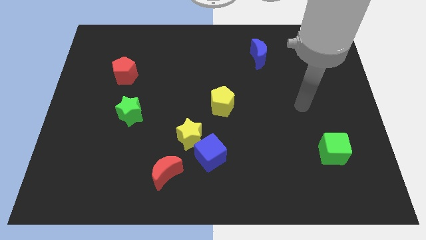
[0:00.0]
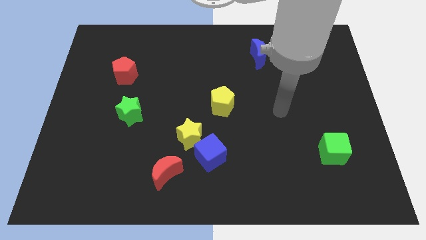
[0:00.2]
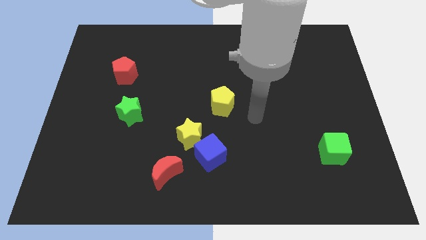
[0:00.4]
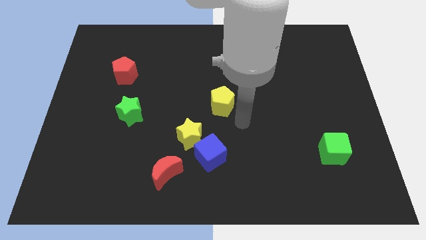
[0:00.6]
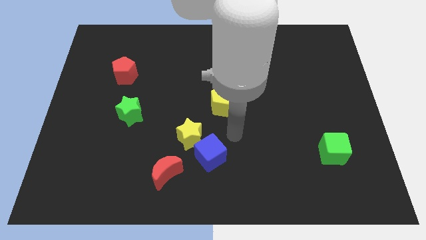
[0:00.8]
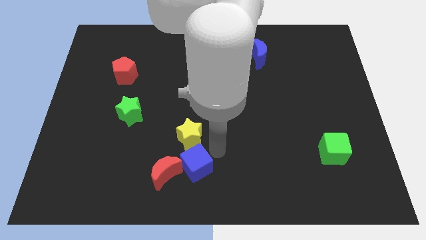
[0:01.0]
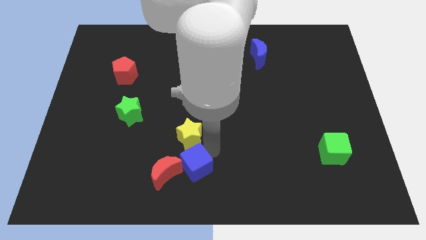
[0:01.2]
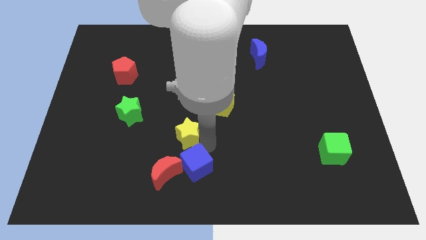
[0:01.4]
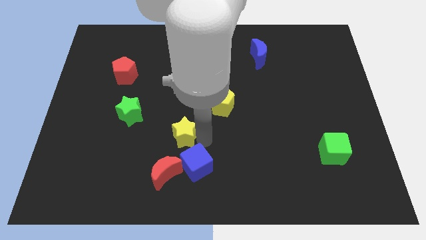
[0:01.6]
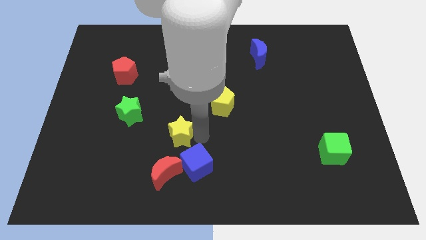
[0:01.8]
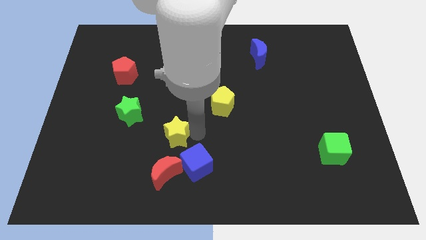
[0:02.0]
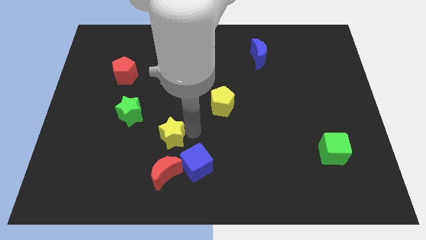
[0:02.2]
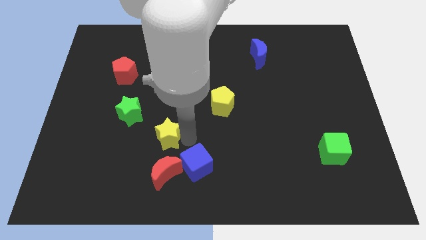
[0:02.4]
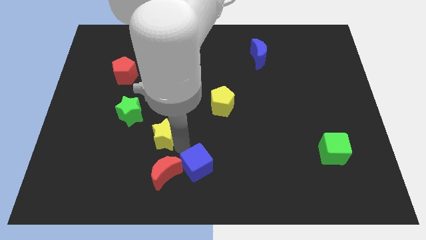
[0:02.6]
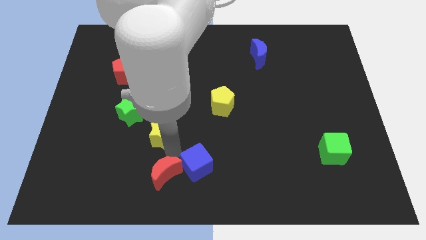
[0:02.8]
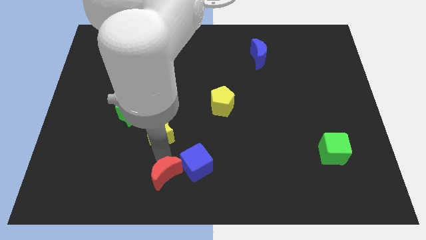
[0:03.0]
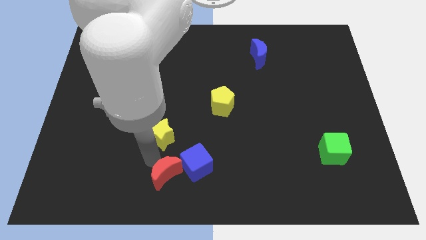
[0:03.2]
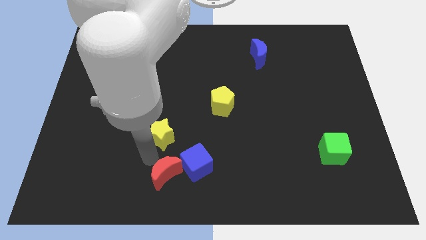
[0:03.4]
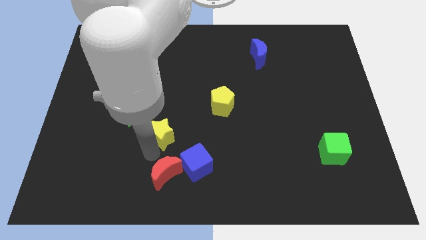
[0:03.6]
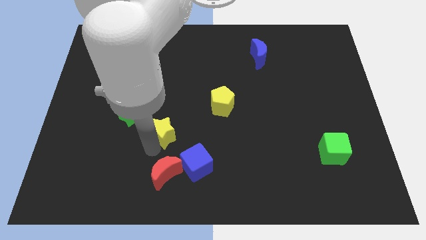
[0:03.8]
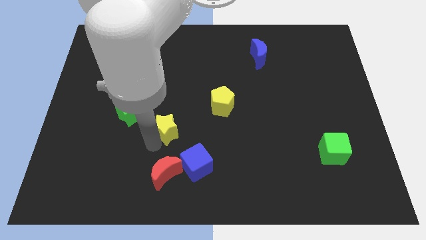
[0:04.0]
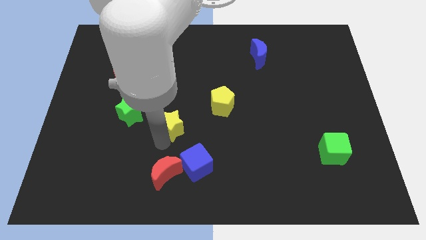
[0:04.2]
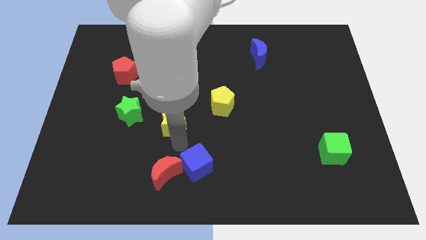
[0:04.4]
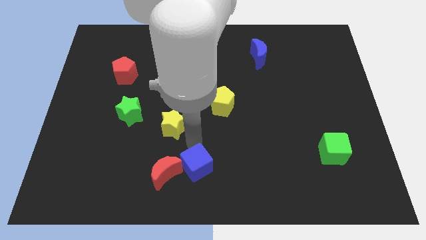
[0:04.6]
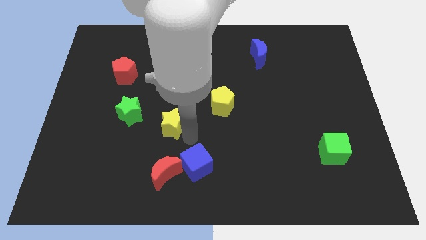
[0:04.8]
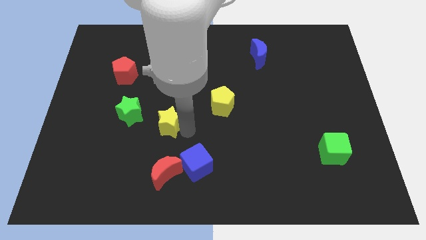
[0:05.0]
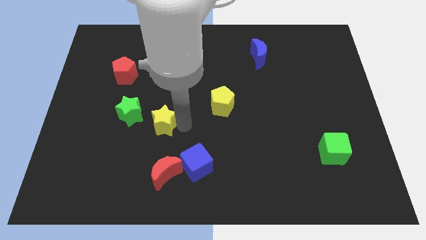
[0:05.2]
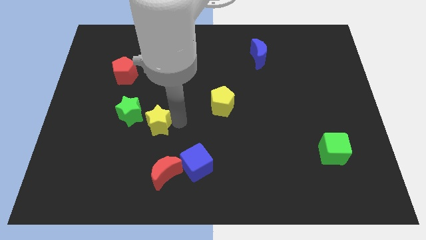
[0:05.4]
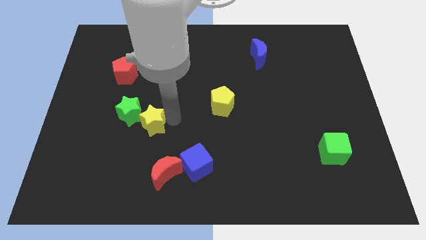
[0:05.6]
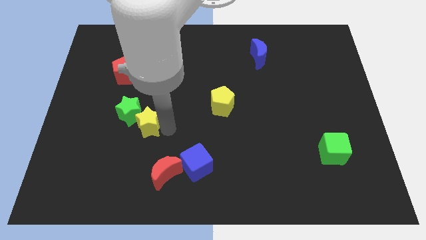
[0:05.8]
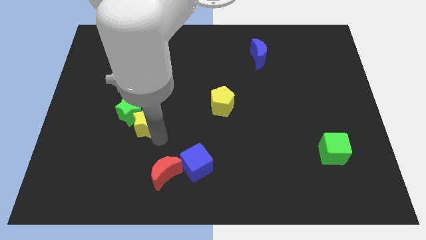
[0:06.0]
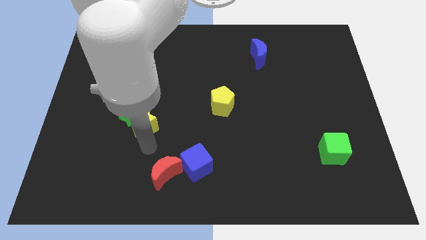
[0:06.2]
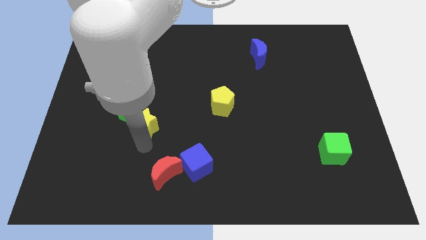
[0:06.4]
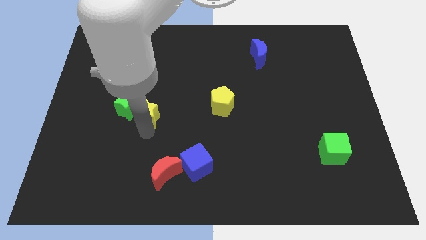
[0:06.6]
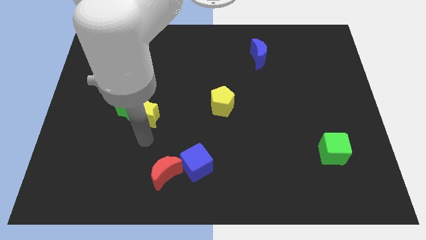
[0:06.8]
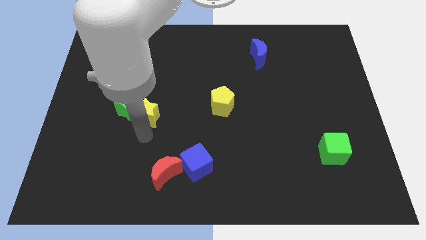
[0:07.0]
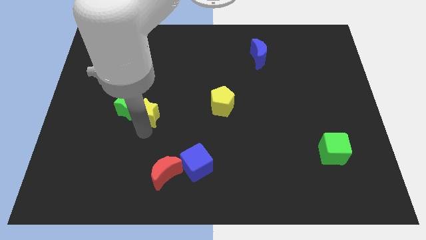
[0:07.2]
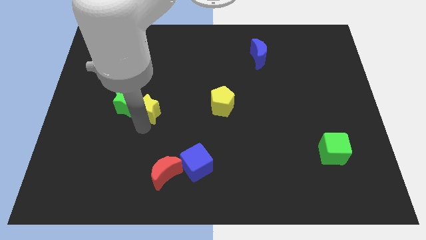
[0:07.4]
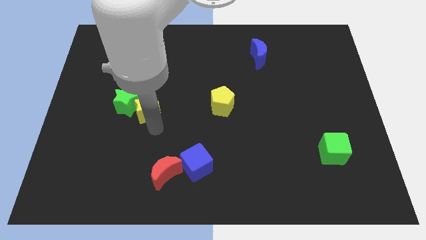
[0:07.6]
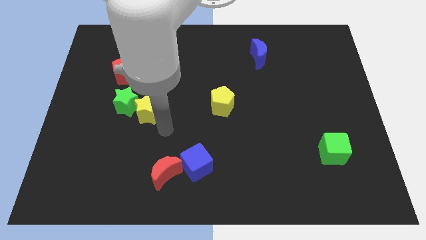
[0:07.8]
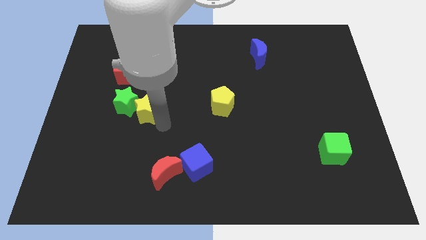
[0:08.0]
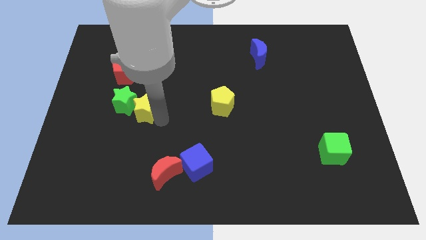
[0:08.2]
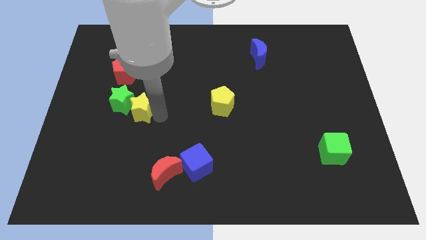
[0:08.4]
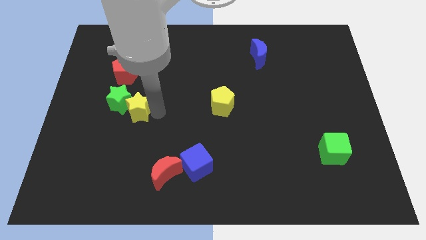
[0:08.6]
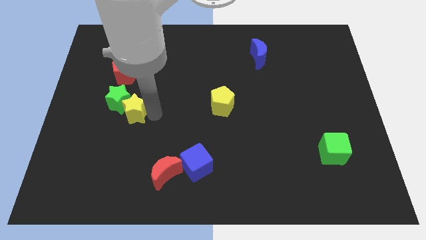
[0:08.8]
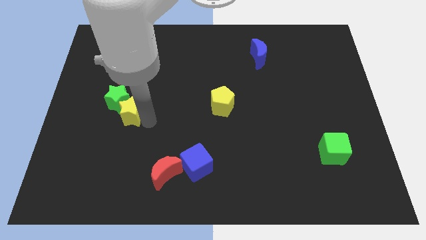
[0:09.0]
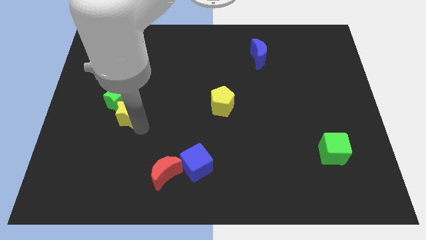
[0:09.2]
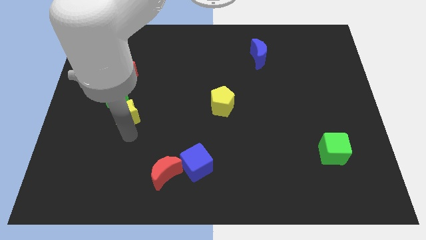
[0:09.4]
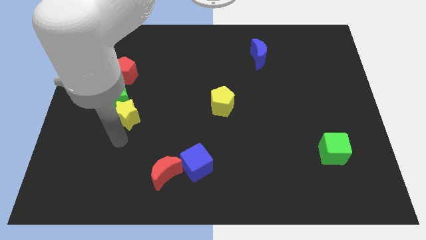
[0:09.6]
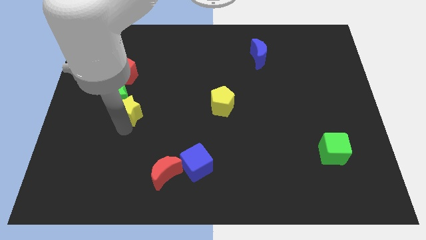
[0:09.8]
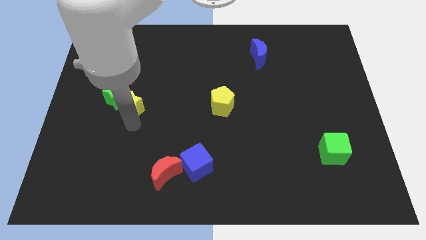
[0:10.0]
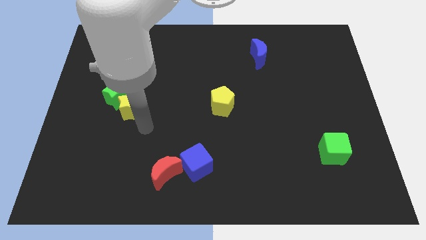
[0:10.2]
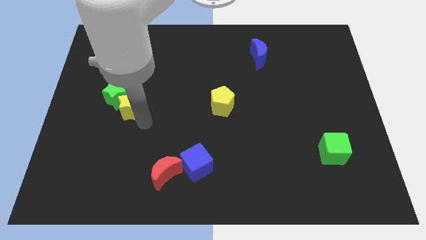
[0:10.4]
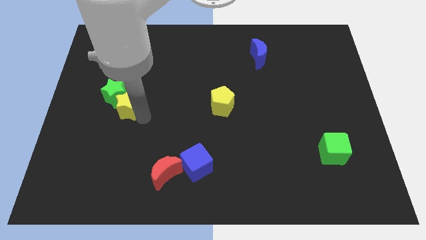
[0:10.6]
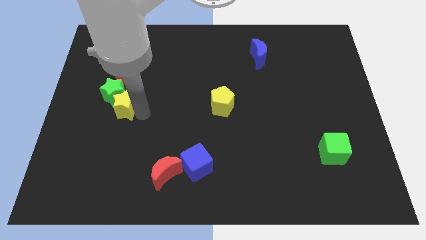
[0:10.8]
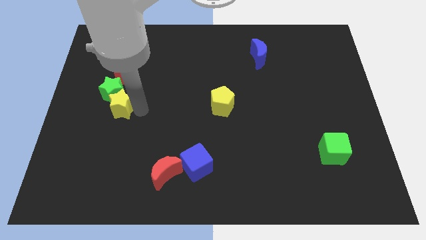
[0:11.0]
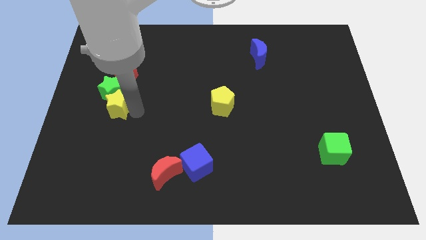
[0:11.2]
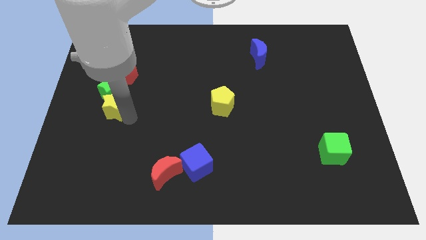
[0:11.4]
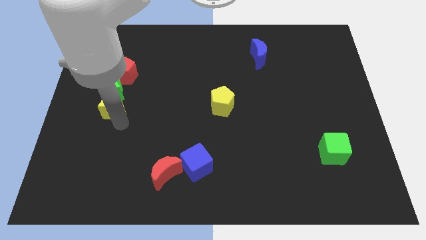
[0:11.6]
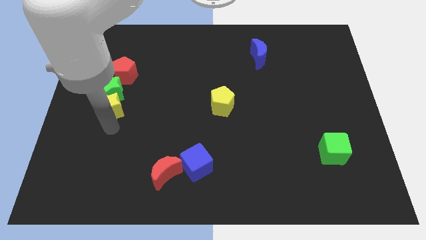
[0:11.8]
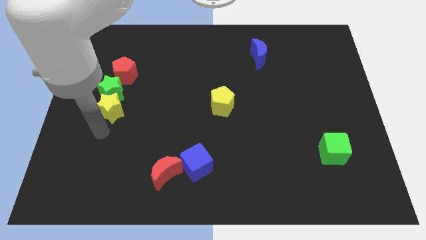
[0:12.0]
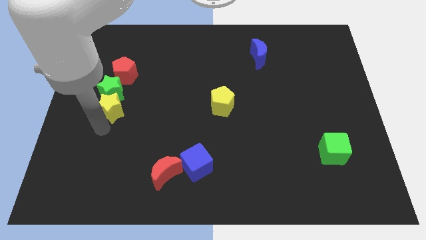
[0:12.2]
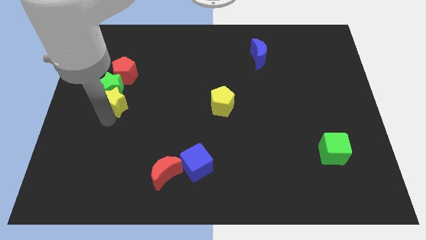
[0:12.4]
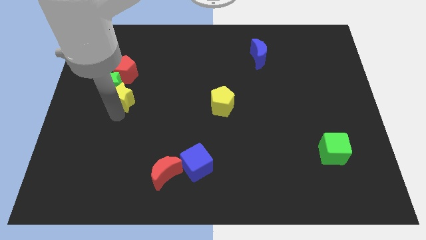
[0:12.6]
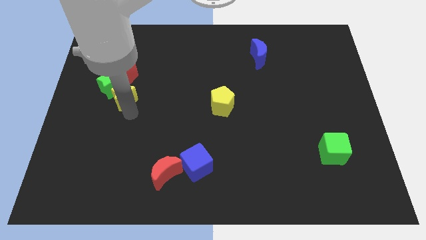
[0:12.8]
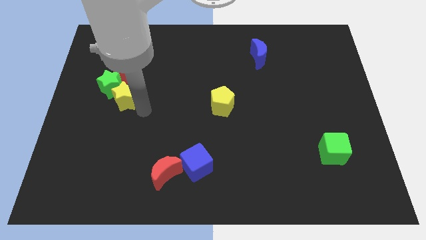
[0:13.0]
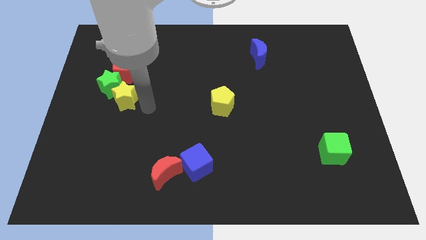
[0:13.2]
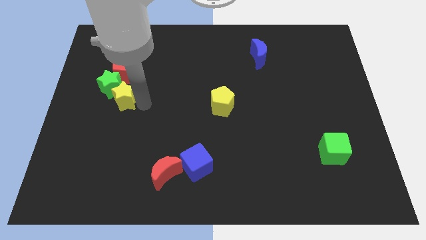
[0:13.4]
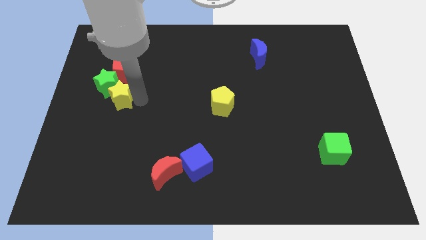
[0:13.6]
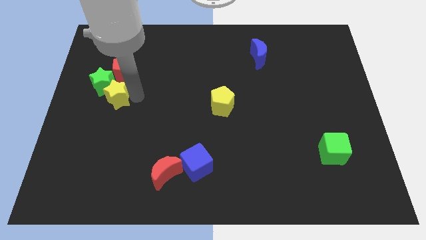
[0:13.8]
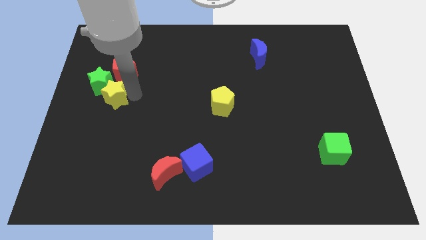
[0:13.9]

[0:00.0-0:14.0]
put the yellow star to the bottom left of the red pentagon
